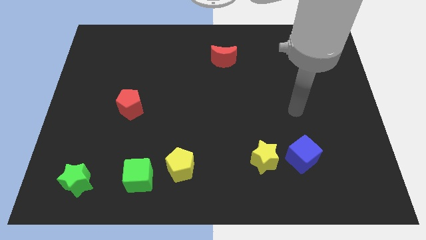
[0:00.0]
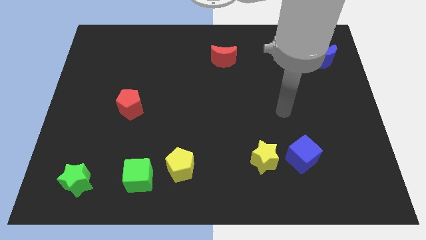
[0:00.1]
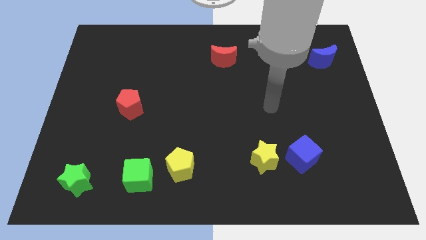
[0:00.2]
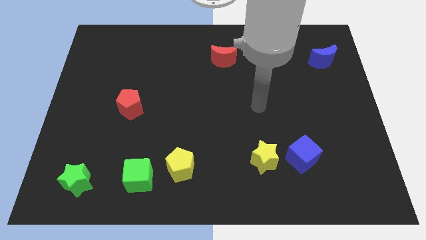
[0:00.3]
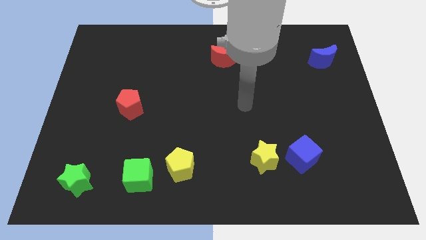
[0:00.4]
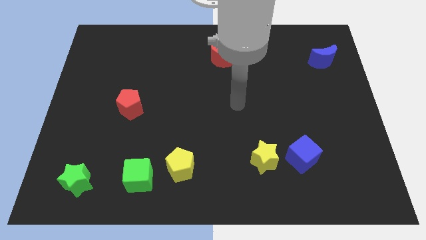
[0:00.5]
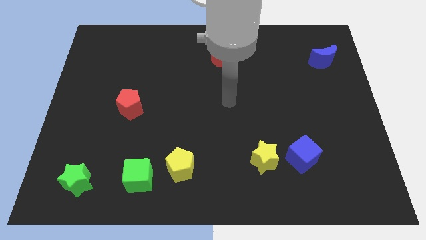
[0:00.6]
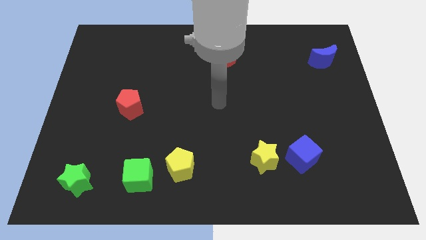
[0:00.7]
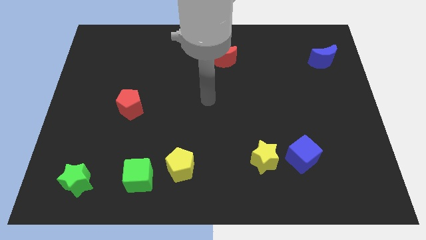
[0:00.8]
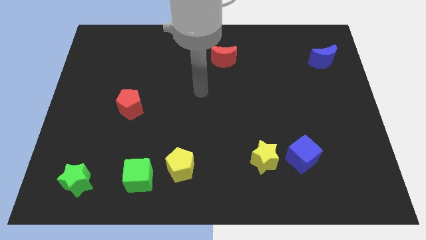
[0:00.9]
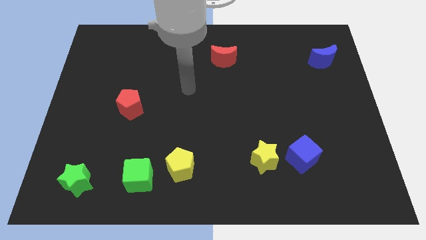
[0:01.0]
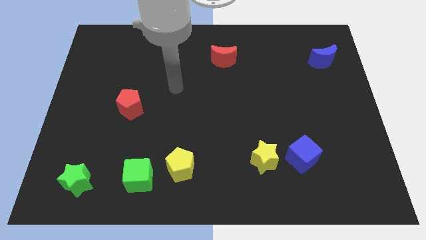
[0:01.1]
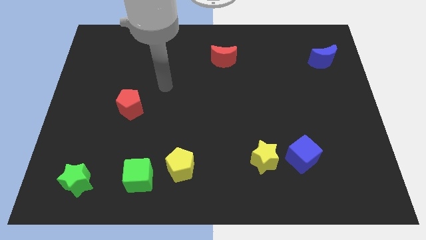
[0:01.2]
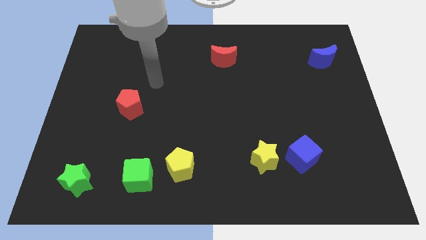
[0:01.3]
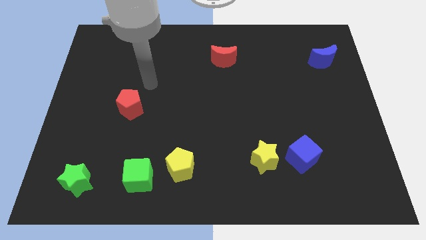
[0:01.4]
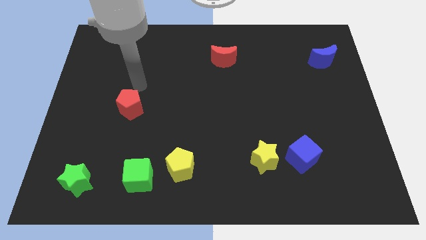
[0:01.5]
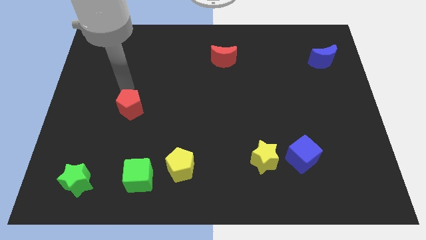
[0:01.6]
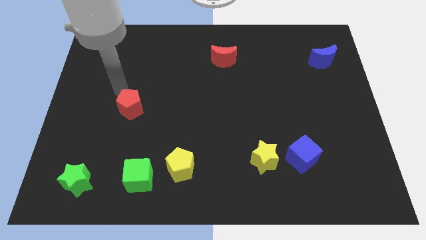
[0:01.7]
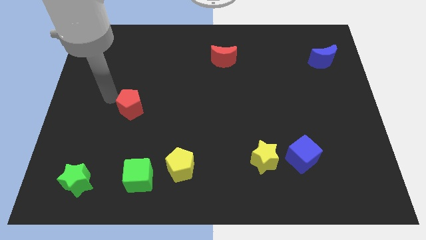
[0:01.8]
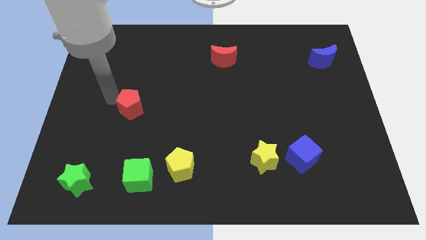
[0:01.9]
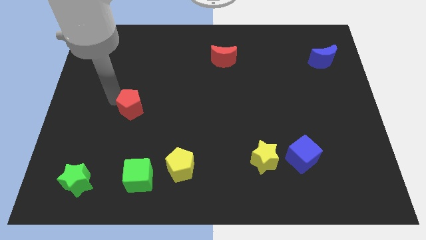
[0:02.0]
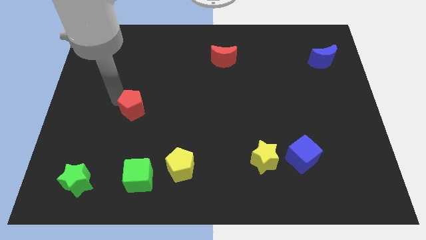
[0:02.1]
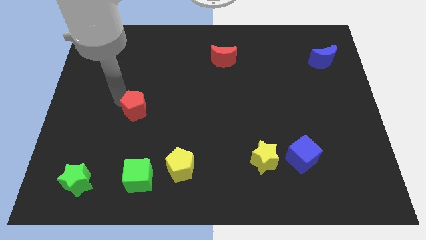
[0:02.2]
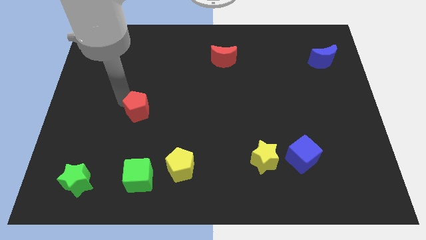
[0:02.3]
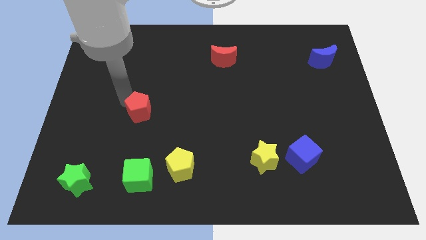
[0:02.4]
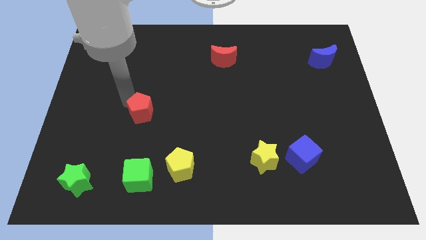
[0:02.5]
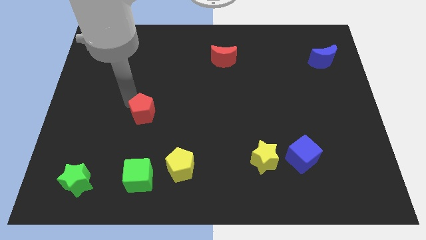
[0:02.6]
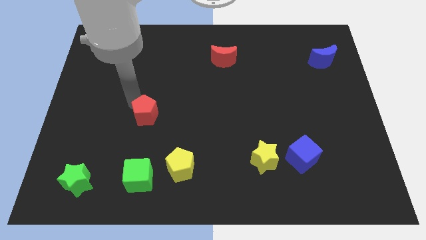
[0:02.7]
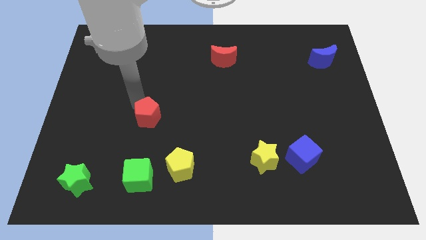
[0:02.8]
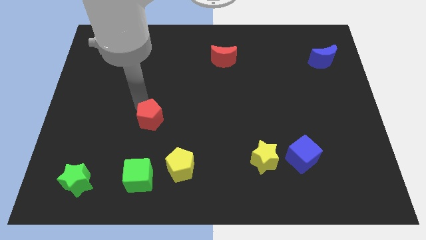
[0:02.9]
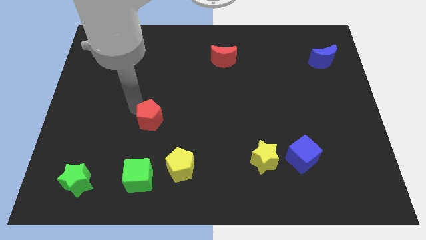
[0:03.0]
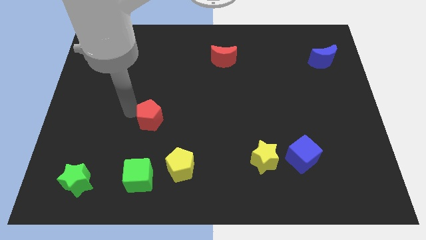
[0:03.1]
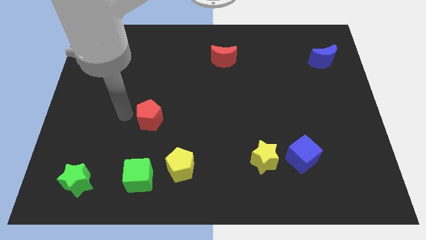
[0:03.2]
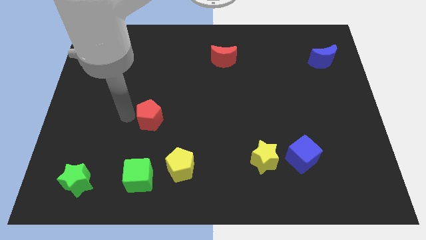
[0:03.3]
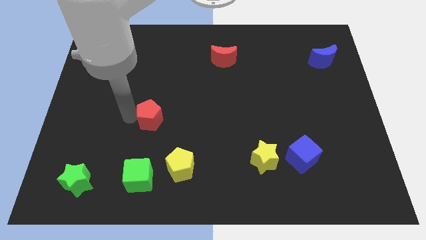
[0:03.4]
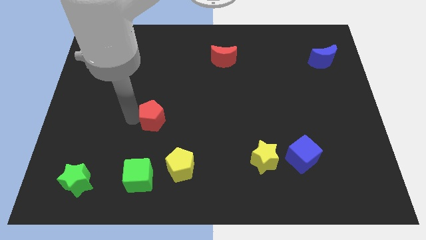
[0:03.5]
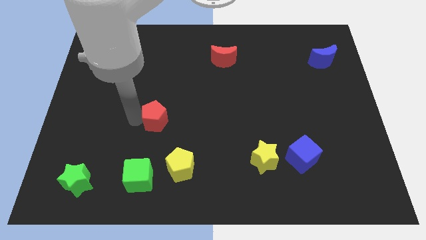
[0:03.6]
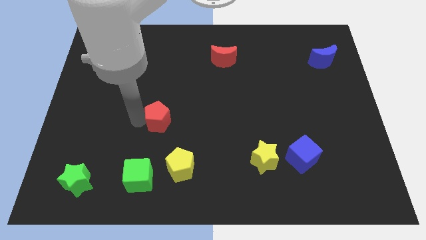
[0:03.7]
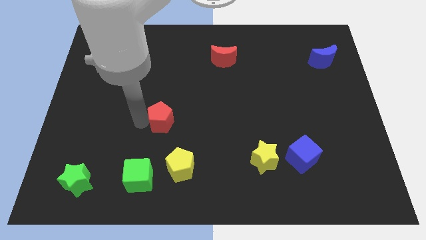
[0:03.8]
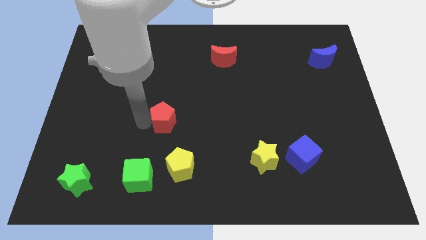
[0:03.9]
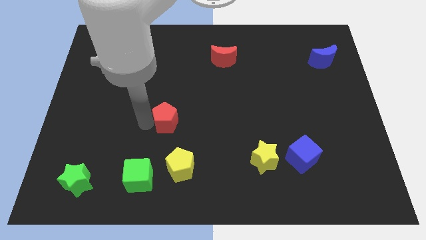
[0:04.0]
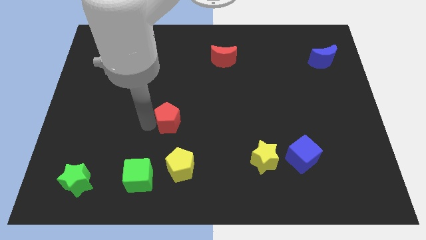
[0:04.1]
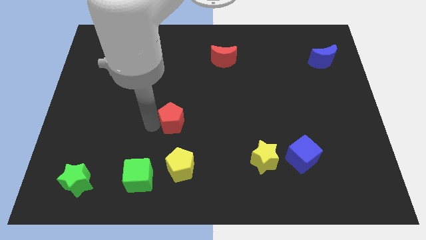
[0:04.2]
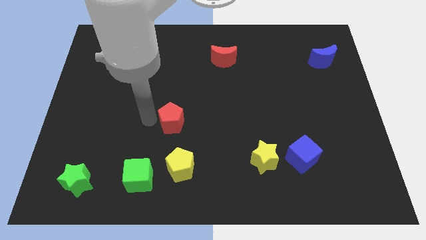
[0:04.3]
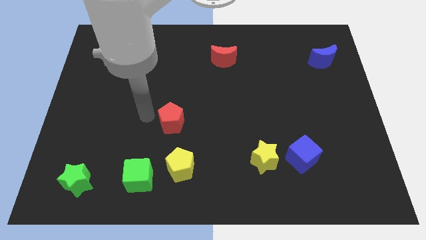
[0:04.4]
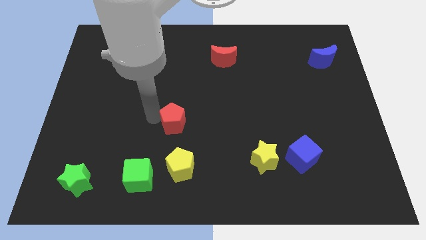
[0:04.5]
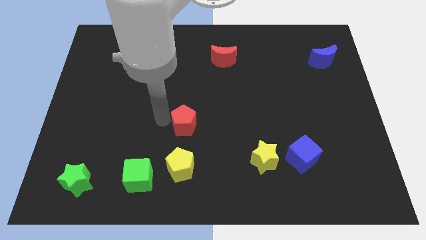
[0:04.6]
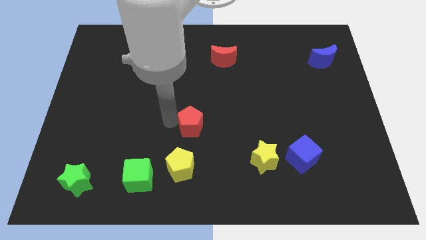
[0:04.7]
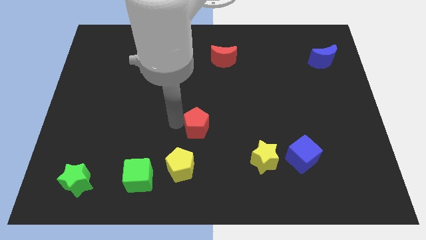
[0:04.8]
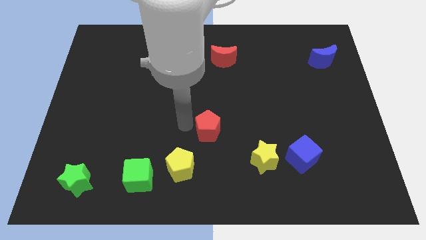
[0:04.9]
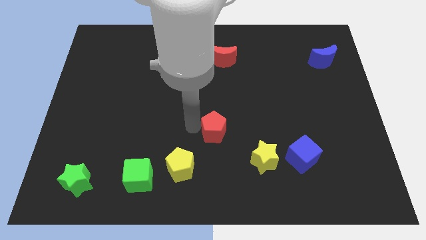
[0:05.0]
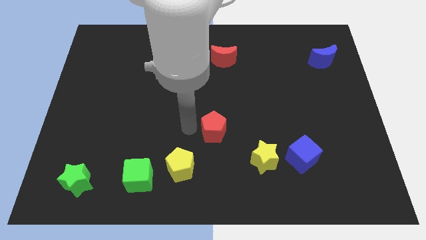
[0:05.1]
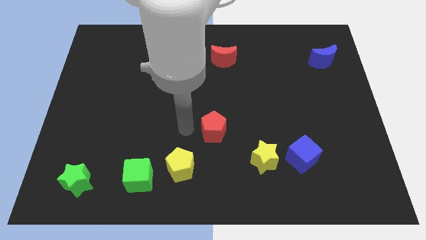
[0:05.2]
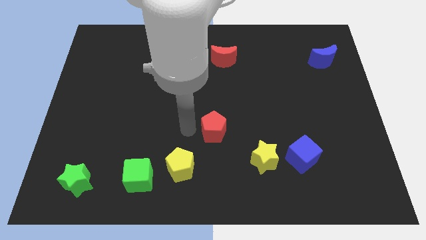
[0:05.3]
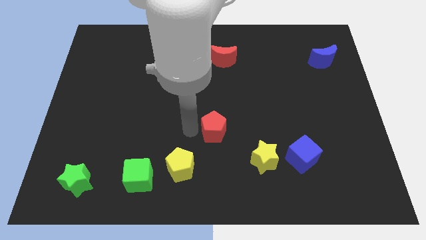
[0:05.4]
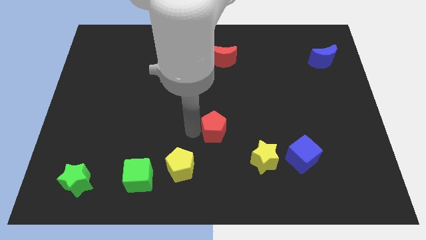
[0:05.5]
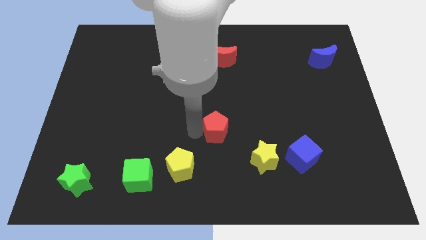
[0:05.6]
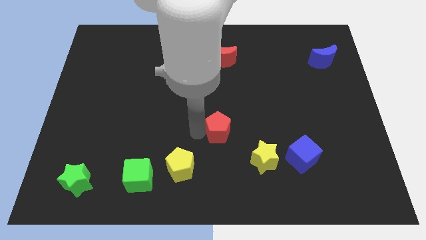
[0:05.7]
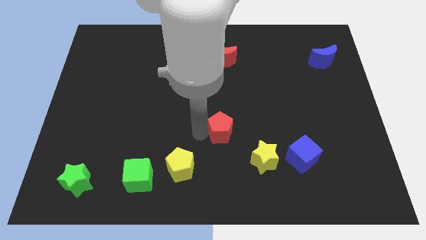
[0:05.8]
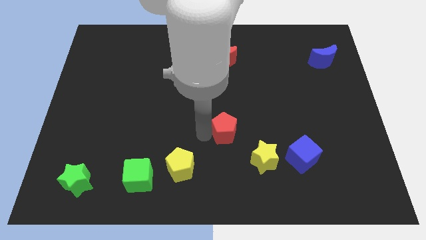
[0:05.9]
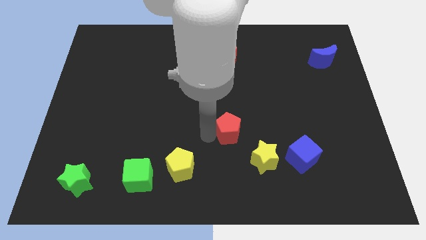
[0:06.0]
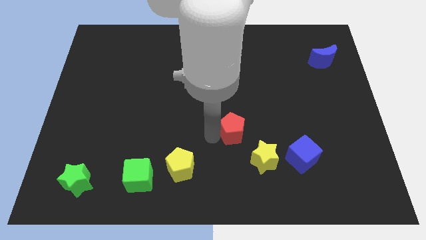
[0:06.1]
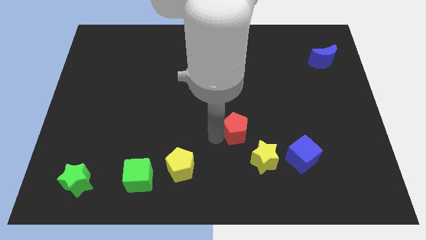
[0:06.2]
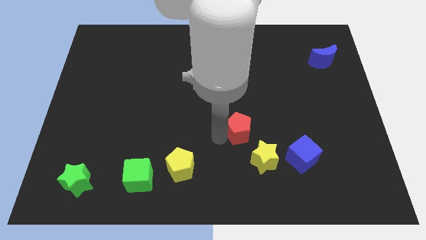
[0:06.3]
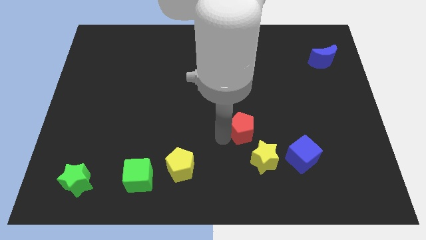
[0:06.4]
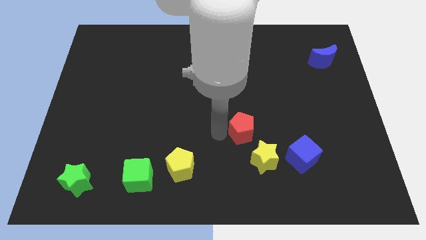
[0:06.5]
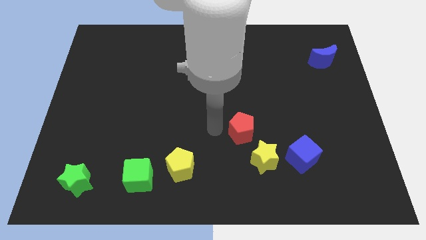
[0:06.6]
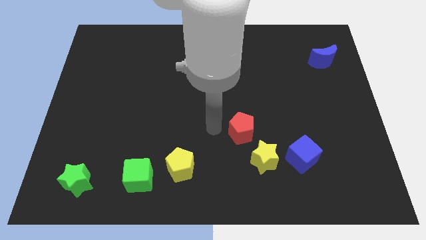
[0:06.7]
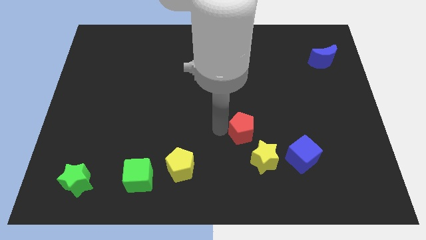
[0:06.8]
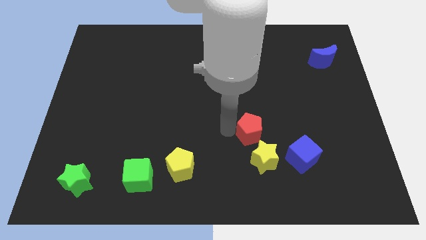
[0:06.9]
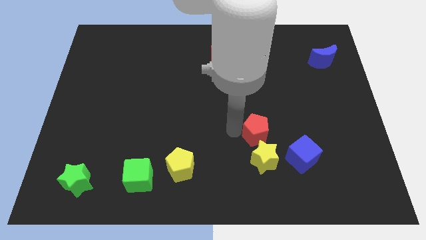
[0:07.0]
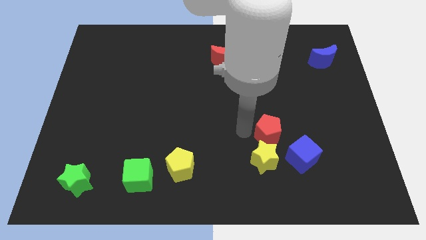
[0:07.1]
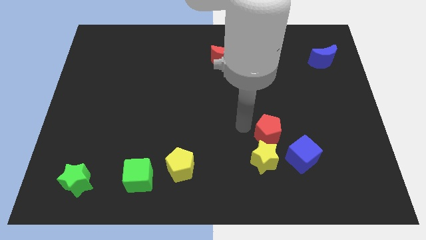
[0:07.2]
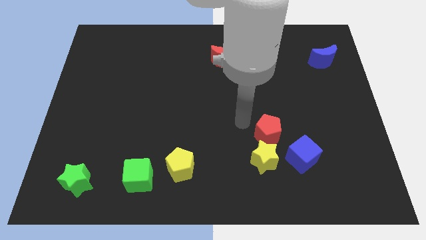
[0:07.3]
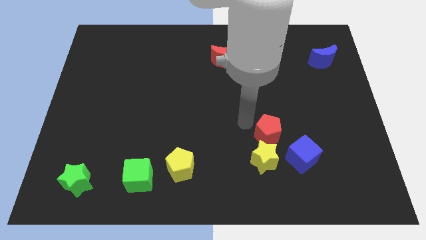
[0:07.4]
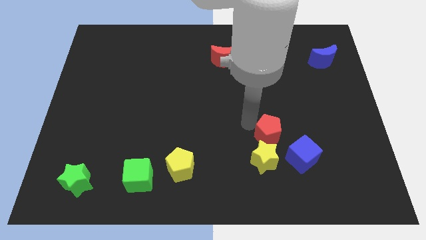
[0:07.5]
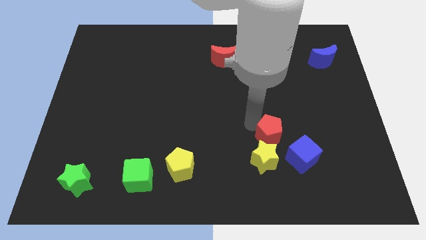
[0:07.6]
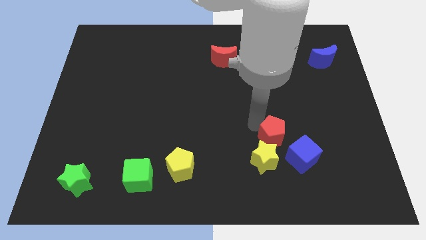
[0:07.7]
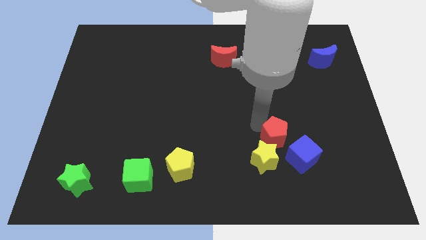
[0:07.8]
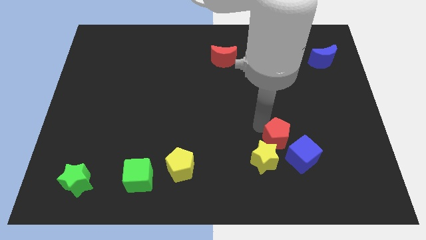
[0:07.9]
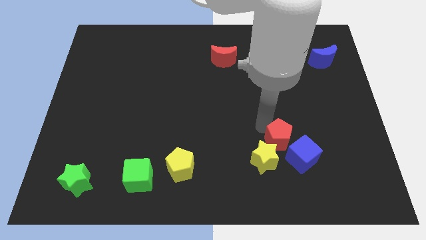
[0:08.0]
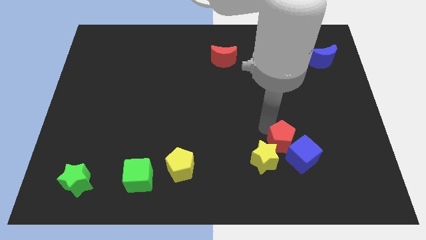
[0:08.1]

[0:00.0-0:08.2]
move the red pentagon next to the blue cube
